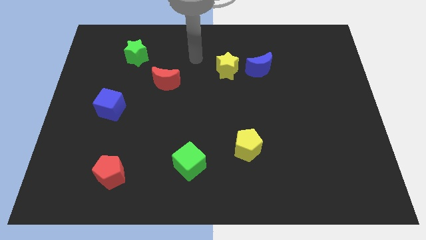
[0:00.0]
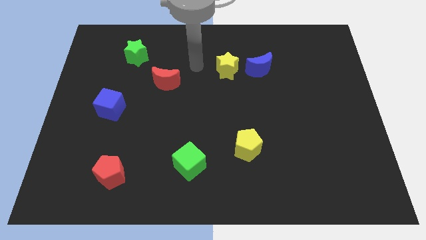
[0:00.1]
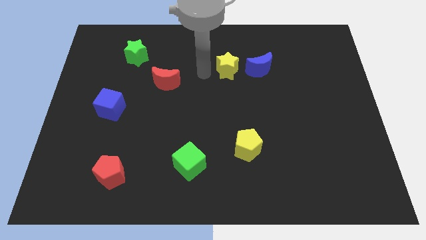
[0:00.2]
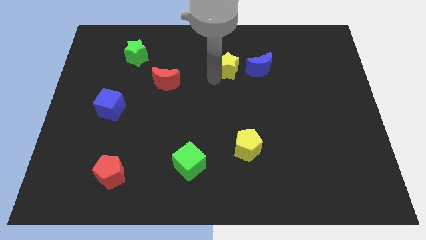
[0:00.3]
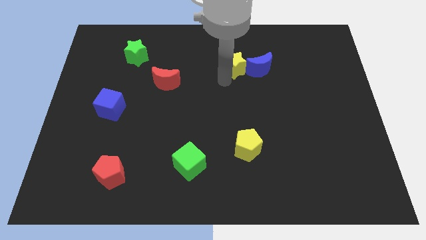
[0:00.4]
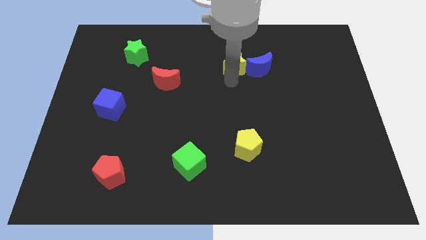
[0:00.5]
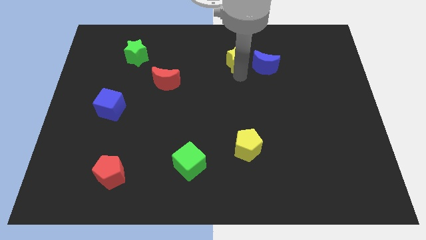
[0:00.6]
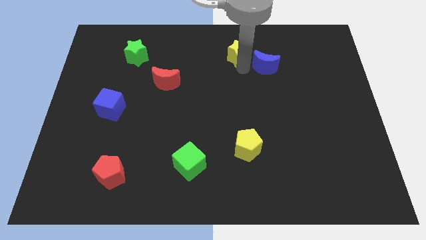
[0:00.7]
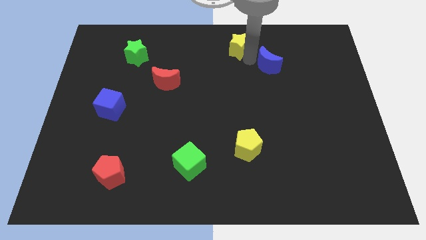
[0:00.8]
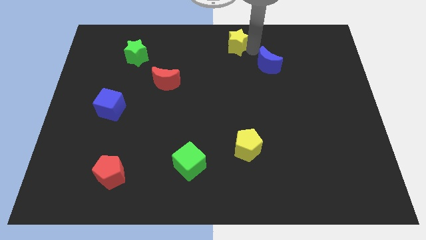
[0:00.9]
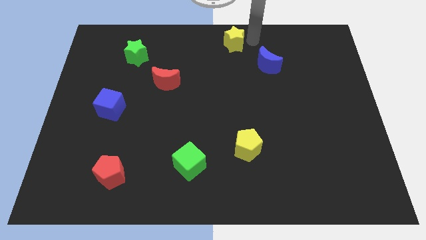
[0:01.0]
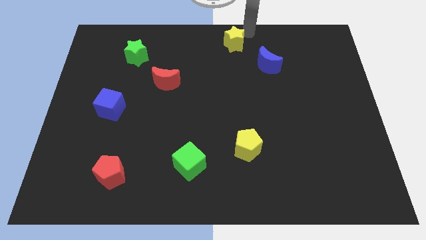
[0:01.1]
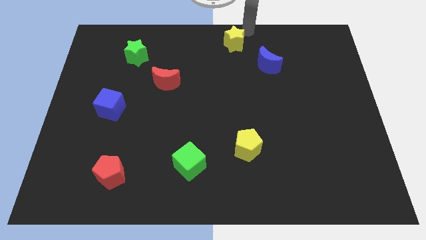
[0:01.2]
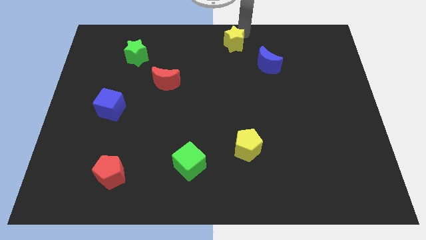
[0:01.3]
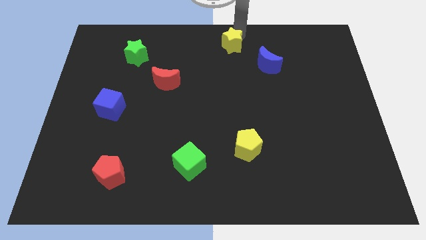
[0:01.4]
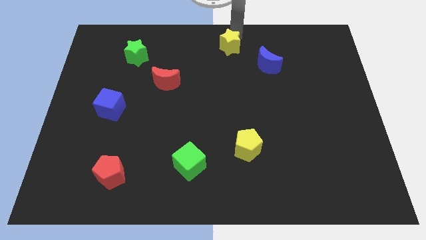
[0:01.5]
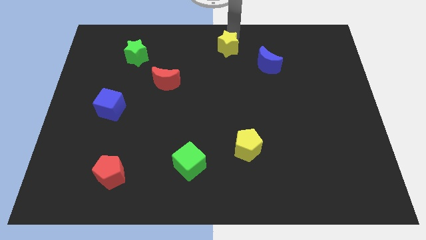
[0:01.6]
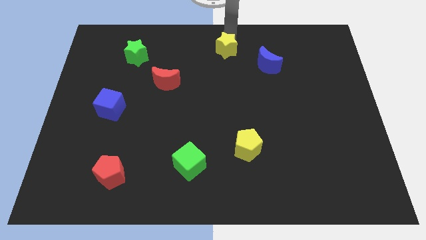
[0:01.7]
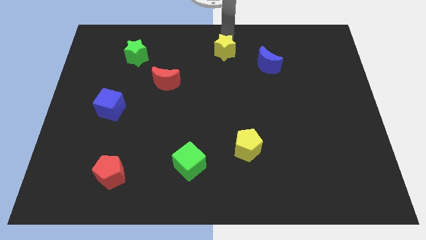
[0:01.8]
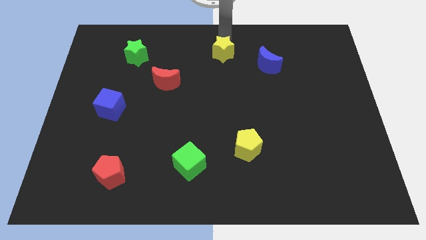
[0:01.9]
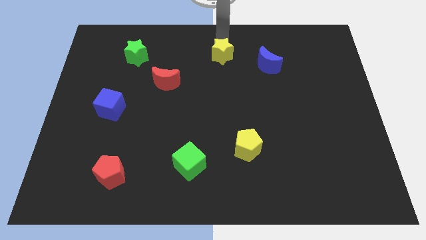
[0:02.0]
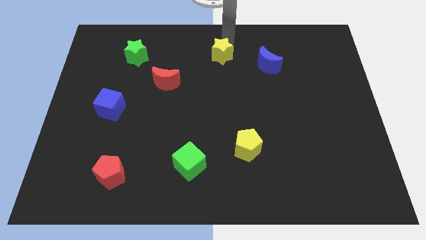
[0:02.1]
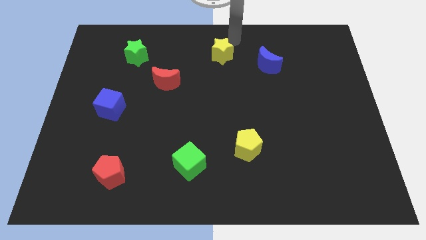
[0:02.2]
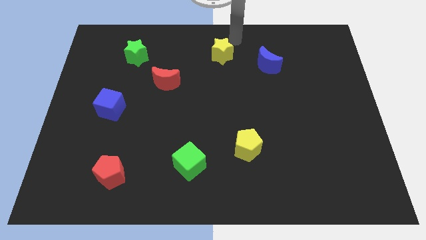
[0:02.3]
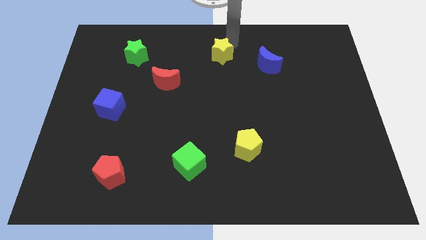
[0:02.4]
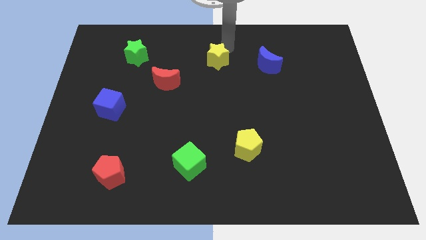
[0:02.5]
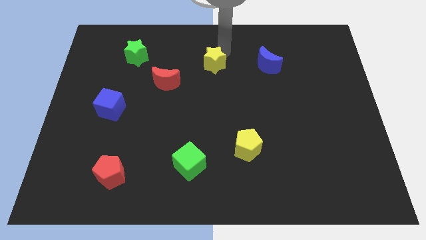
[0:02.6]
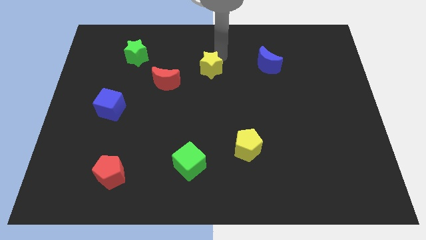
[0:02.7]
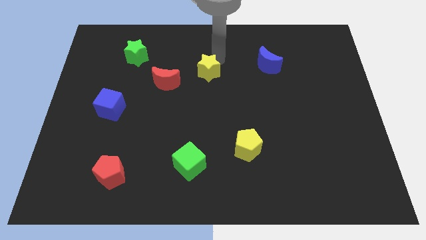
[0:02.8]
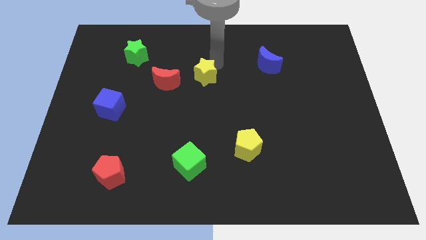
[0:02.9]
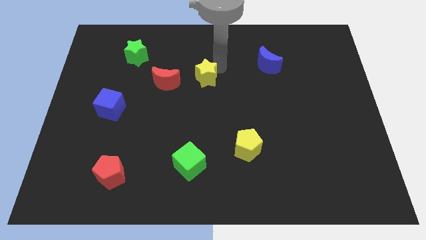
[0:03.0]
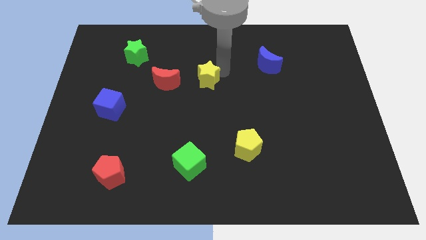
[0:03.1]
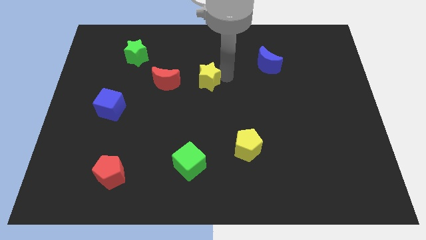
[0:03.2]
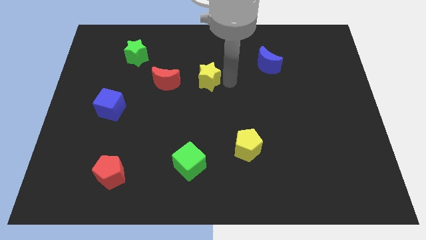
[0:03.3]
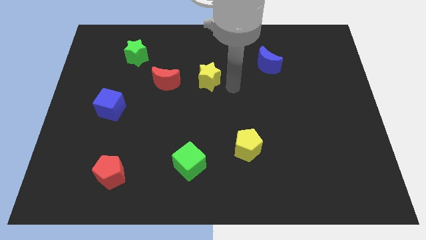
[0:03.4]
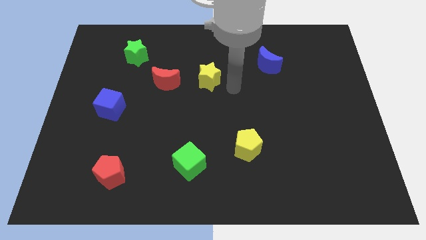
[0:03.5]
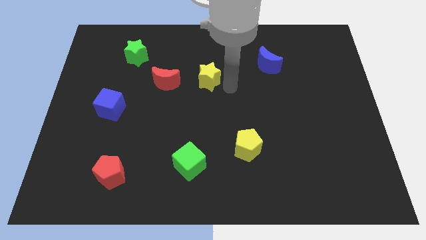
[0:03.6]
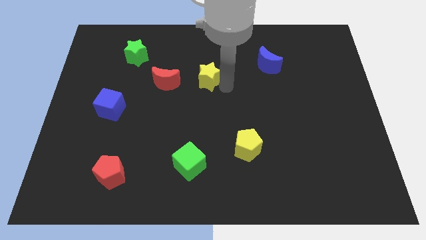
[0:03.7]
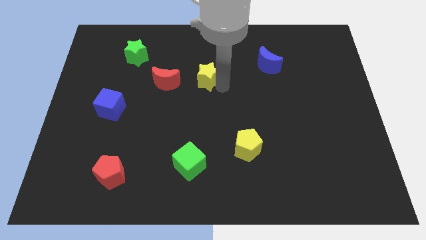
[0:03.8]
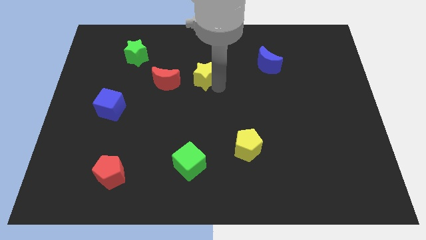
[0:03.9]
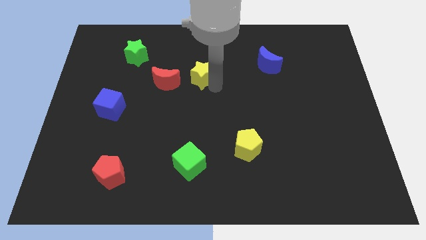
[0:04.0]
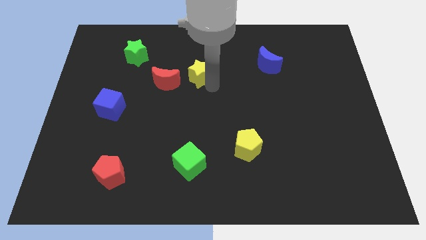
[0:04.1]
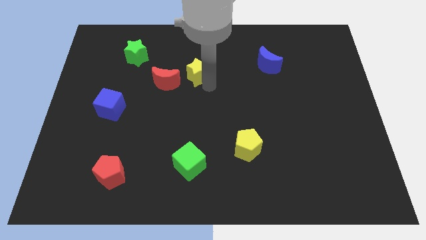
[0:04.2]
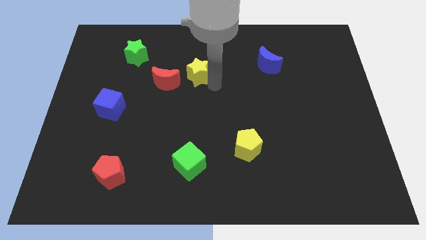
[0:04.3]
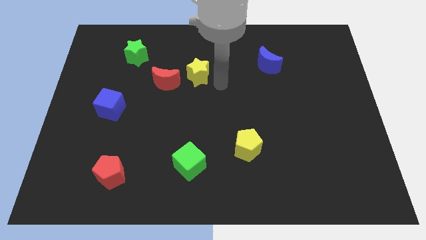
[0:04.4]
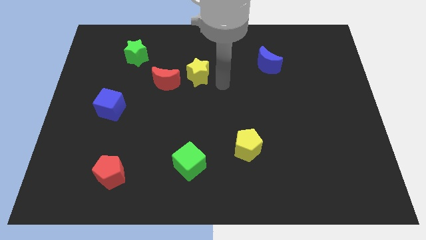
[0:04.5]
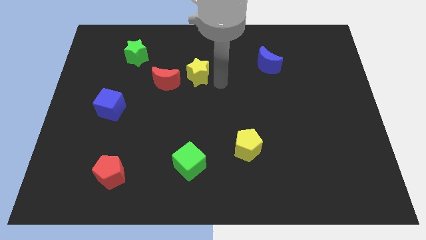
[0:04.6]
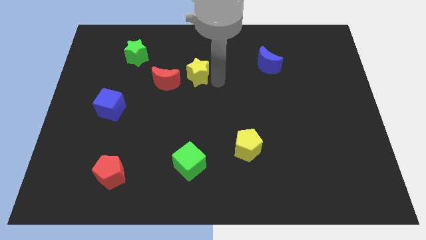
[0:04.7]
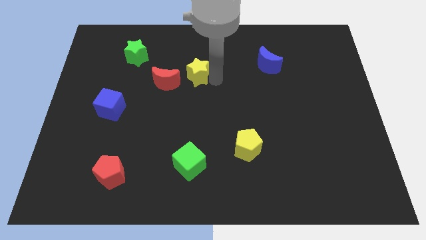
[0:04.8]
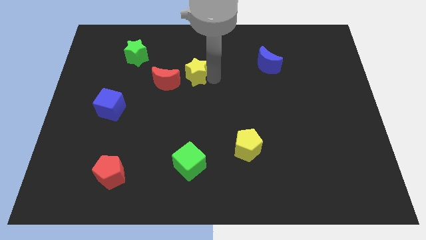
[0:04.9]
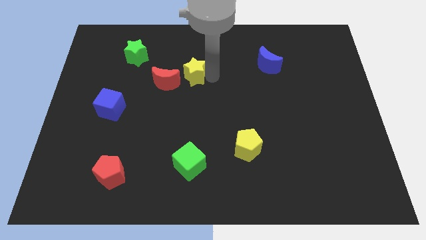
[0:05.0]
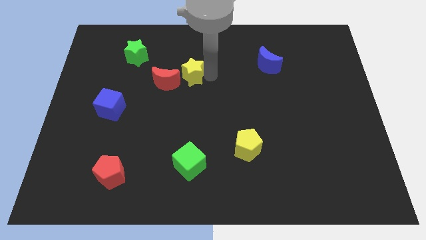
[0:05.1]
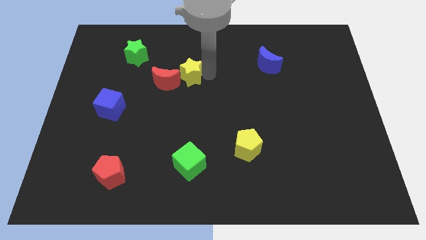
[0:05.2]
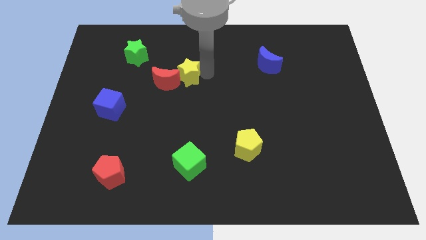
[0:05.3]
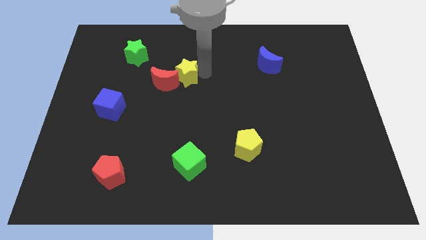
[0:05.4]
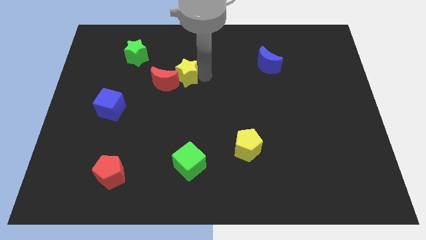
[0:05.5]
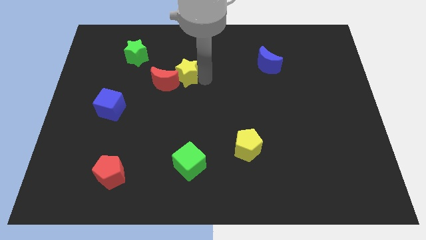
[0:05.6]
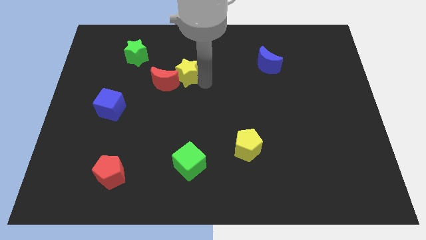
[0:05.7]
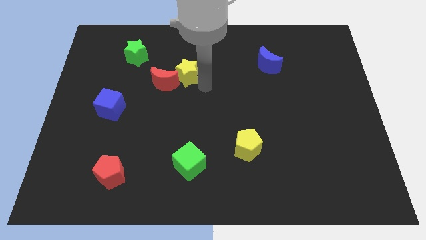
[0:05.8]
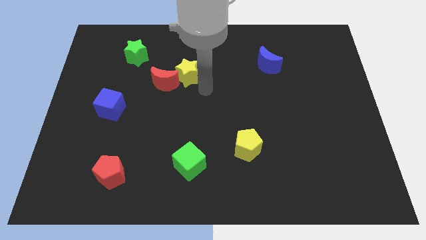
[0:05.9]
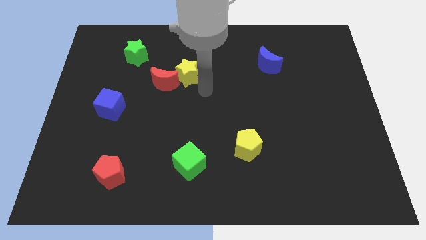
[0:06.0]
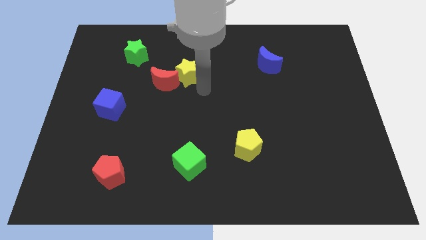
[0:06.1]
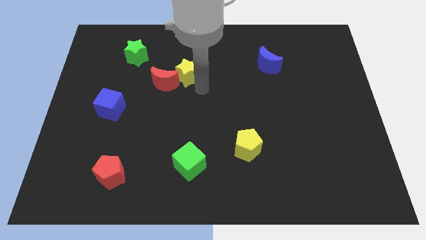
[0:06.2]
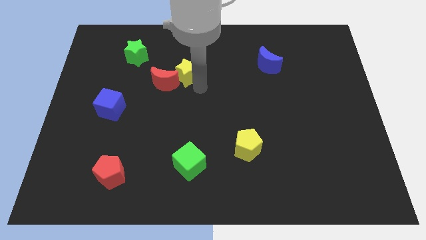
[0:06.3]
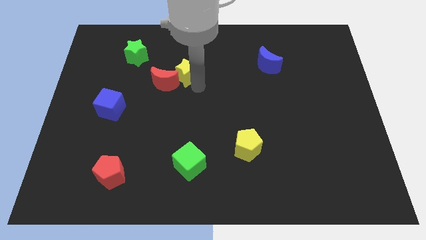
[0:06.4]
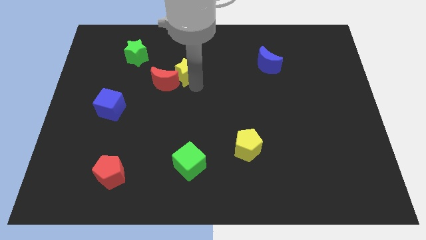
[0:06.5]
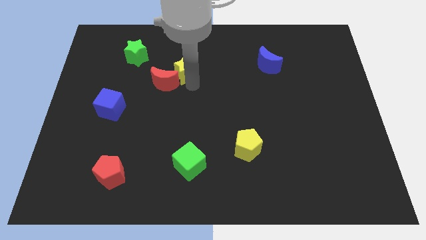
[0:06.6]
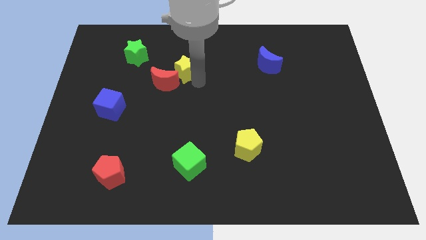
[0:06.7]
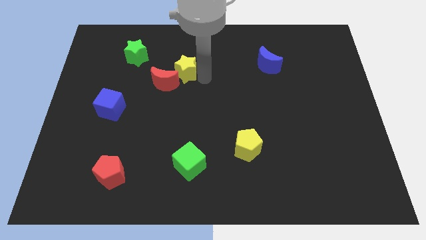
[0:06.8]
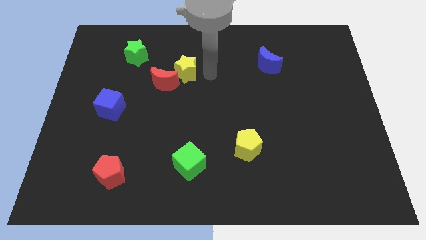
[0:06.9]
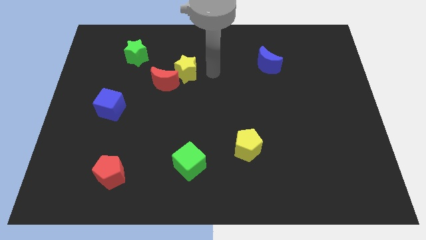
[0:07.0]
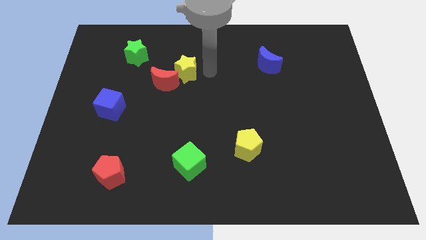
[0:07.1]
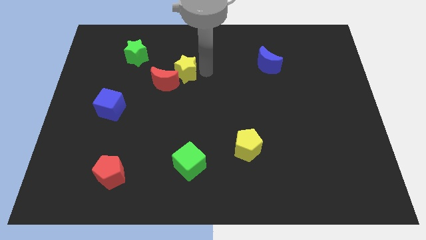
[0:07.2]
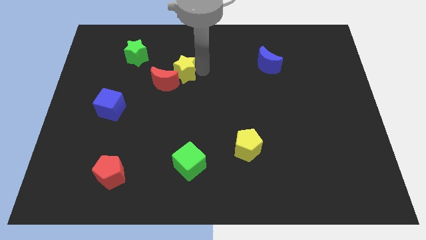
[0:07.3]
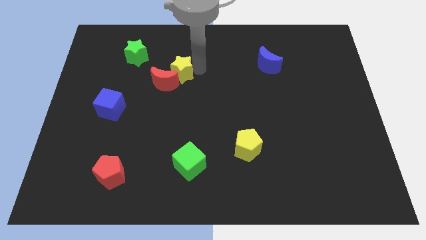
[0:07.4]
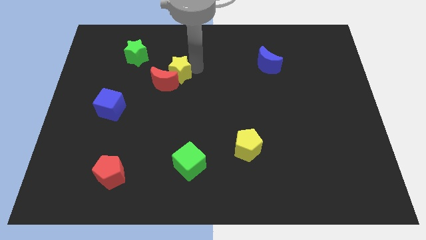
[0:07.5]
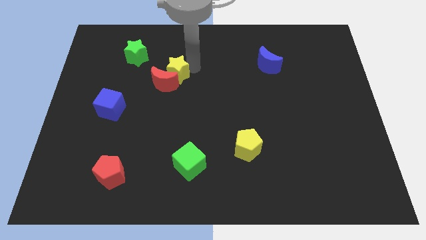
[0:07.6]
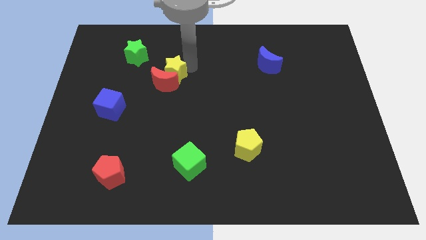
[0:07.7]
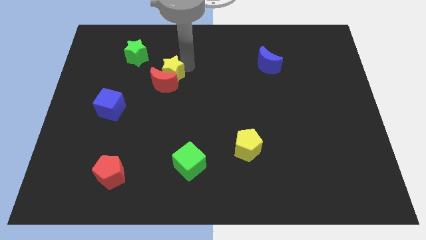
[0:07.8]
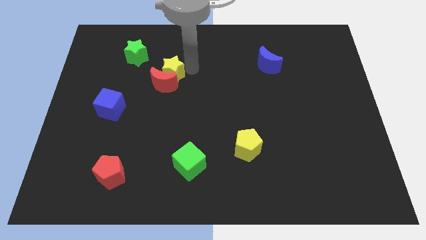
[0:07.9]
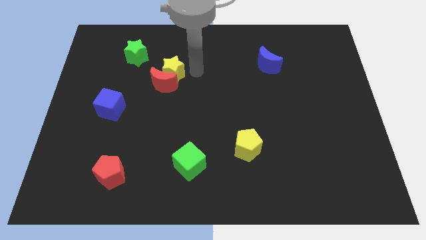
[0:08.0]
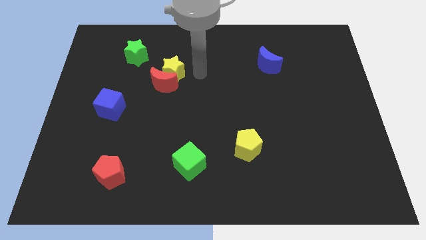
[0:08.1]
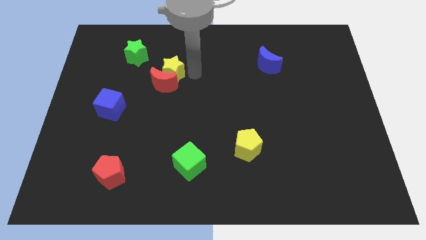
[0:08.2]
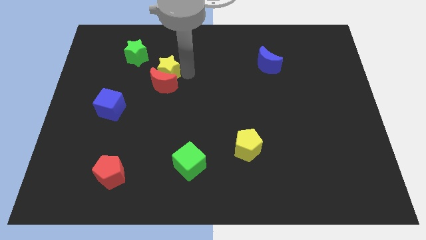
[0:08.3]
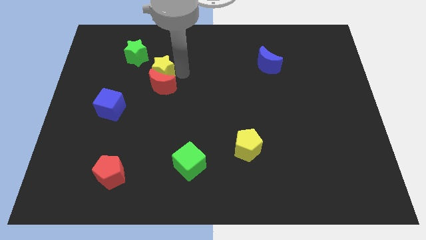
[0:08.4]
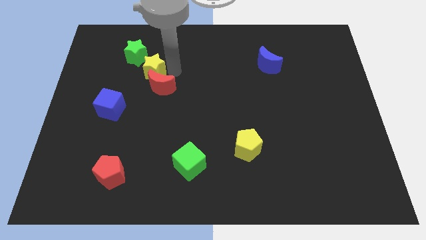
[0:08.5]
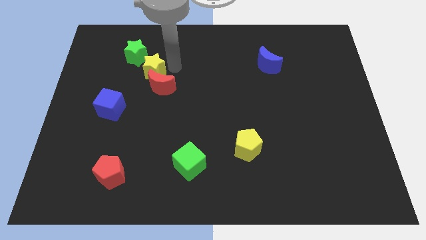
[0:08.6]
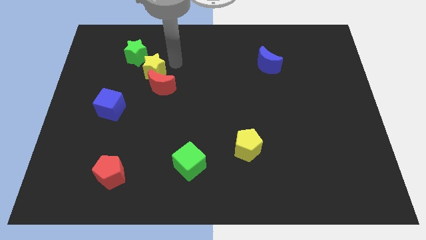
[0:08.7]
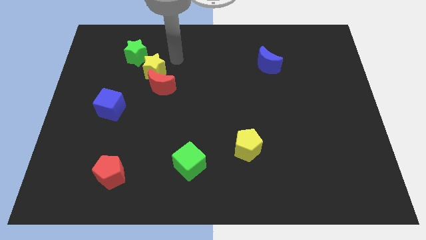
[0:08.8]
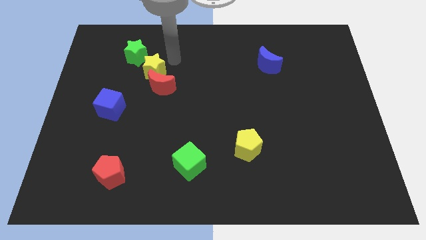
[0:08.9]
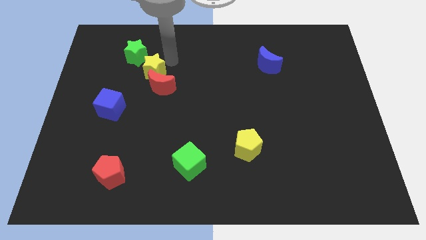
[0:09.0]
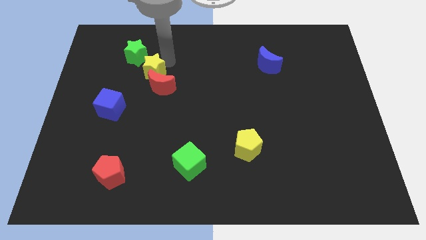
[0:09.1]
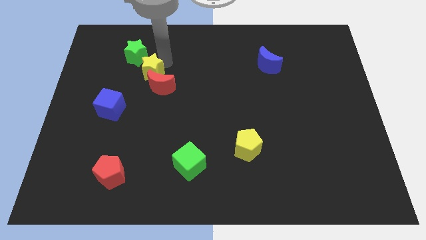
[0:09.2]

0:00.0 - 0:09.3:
push the yellow star to the bottom of the green star
